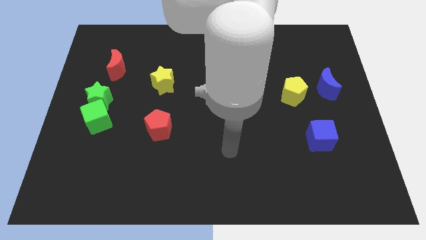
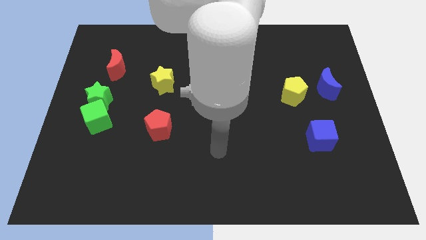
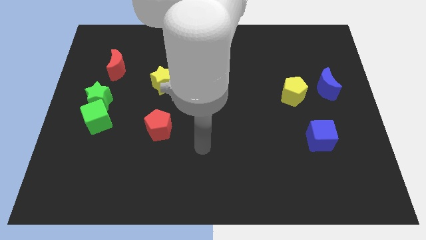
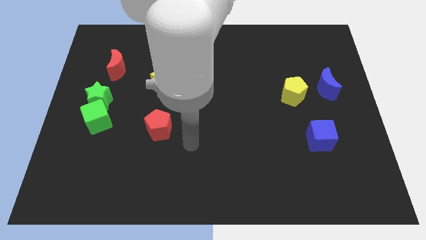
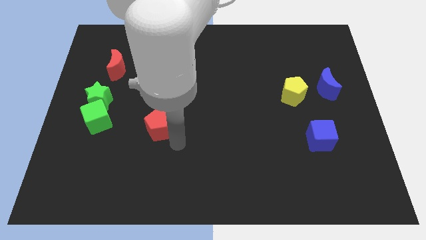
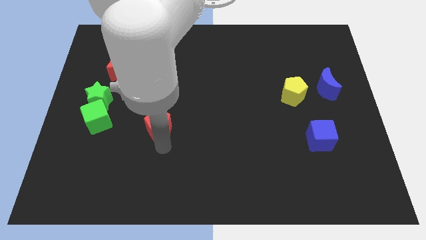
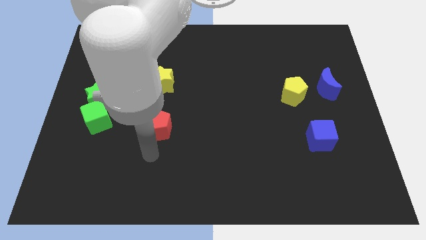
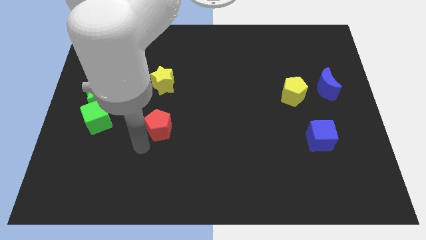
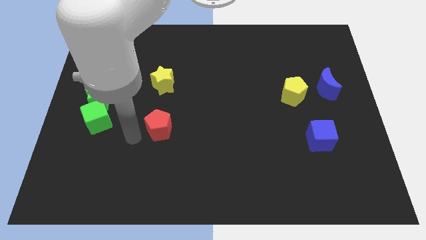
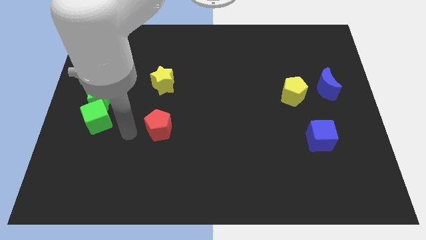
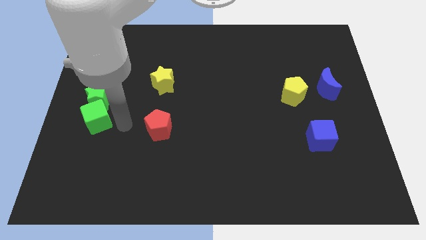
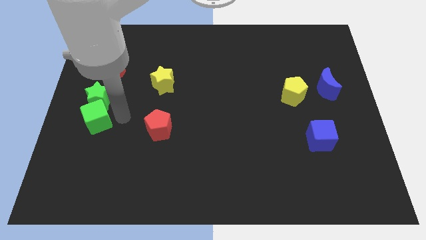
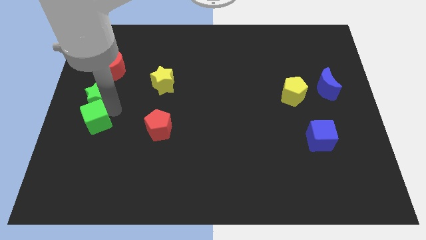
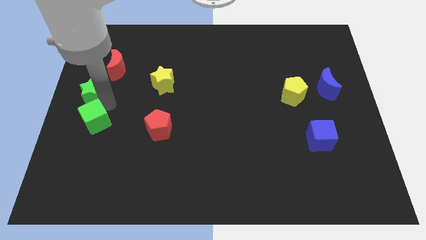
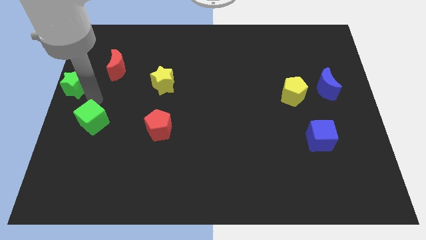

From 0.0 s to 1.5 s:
move the green cube away from the green star

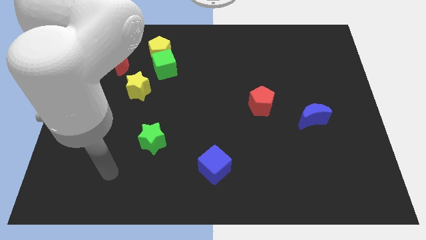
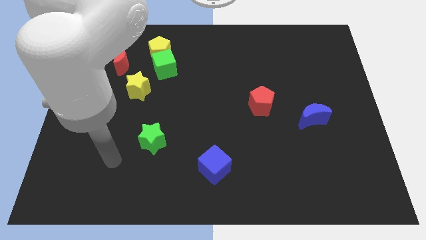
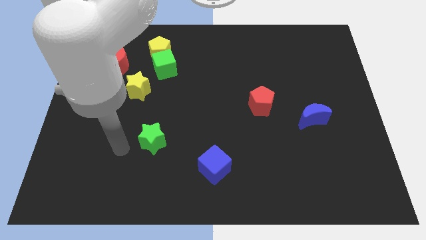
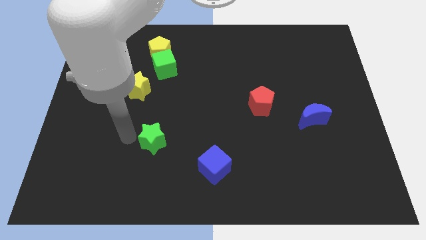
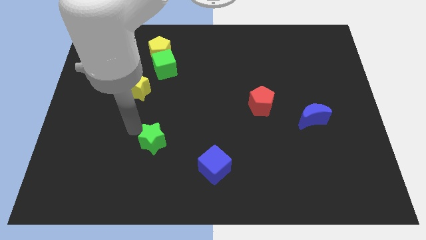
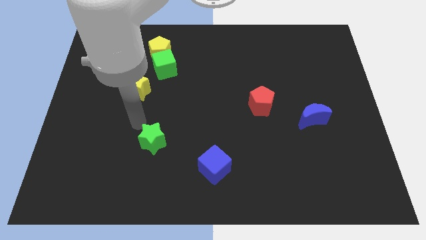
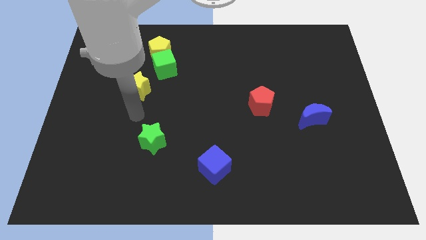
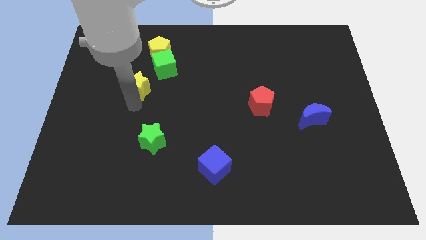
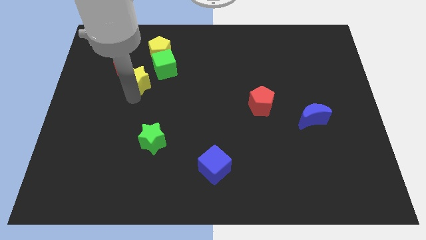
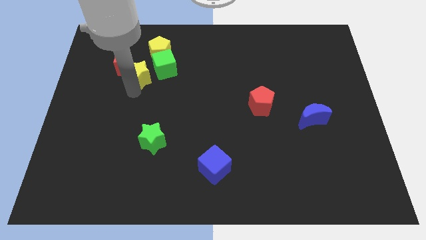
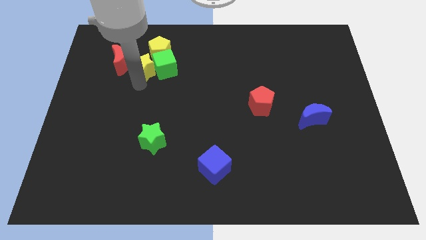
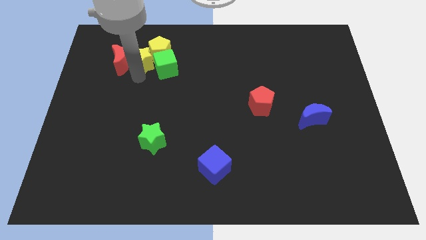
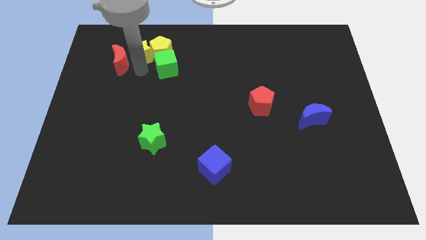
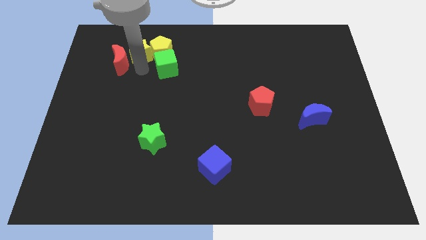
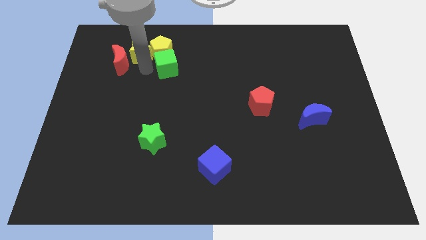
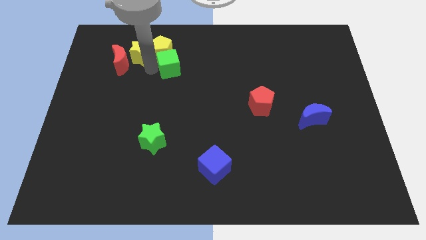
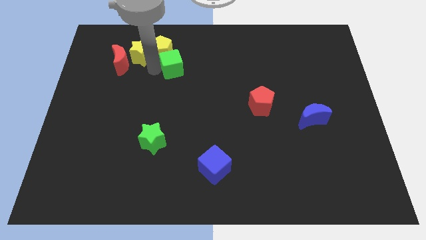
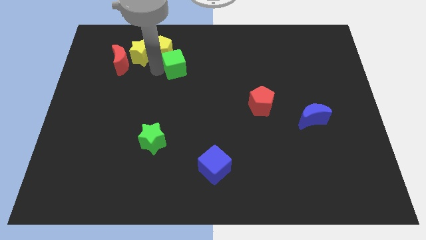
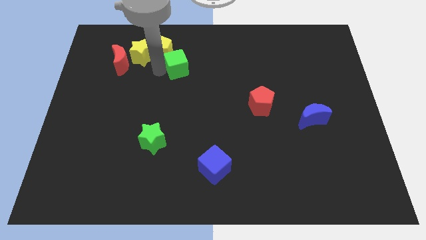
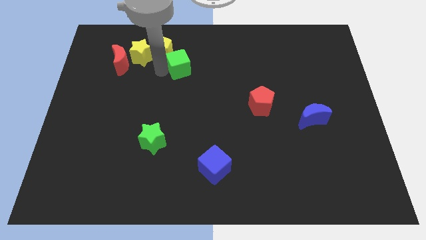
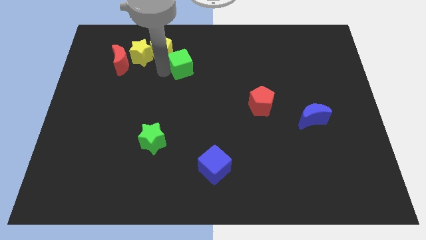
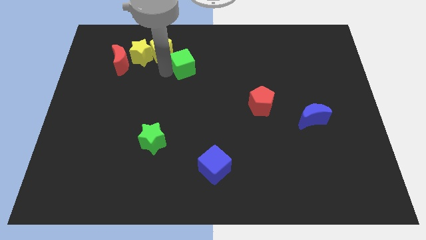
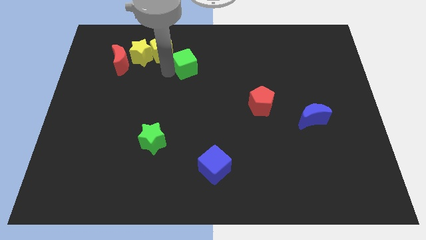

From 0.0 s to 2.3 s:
pull the green cube apart from the yellow pentagon and yellow star

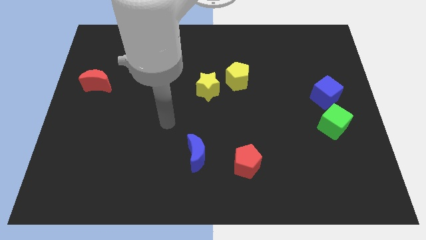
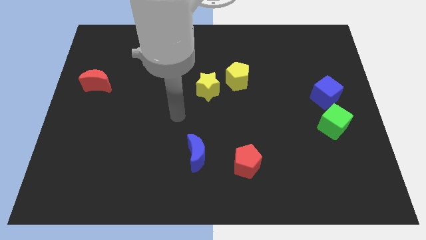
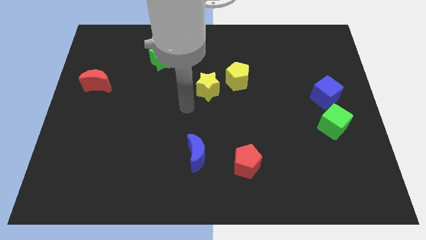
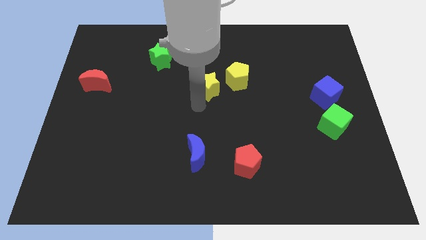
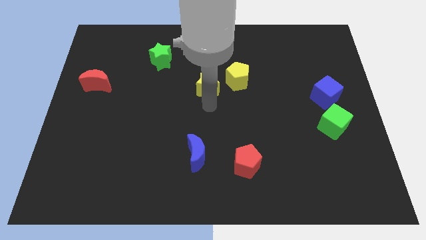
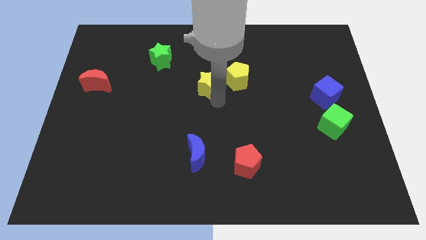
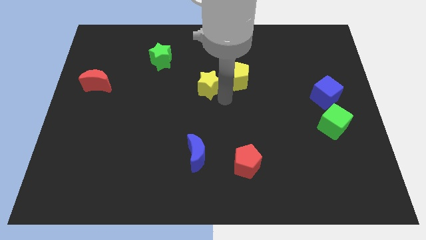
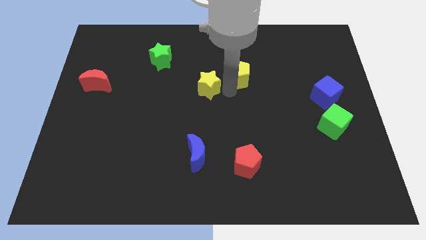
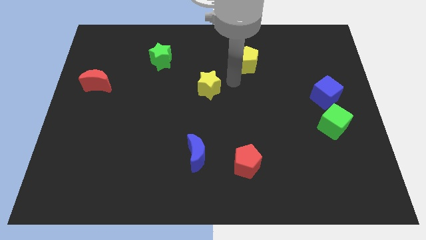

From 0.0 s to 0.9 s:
move the yellow star away from the yellow pentagon

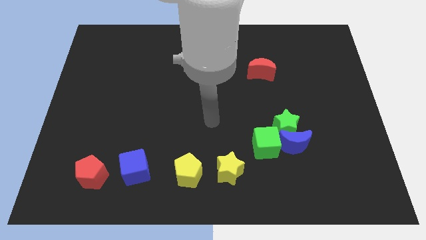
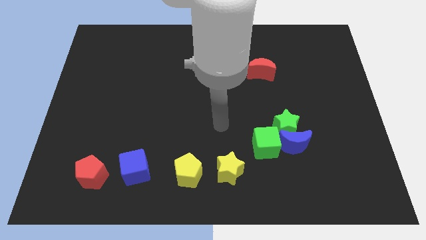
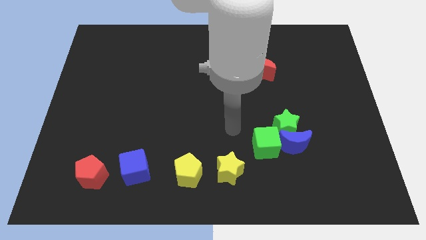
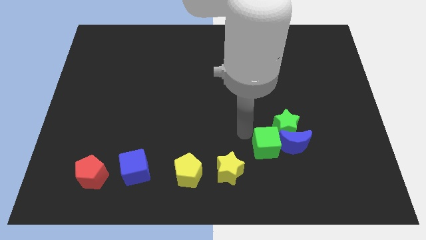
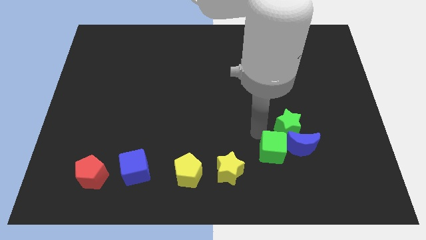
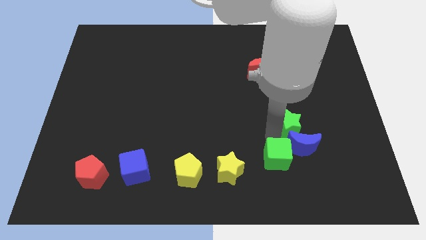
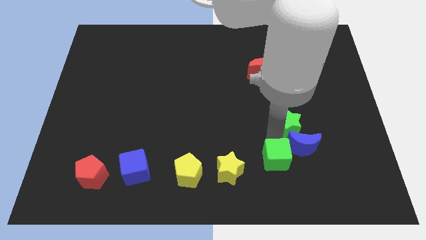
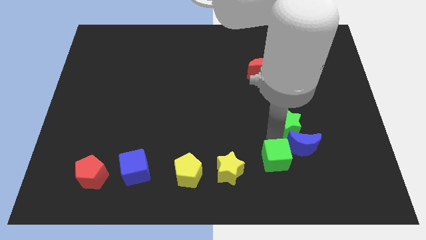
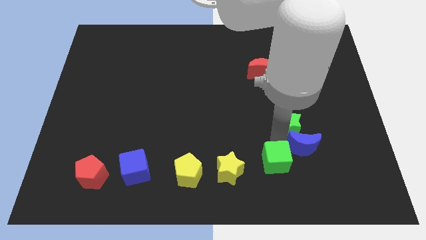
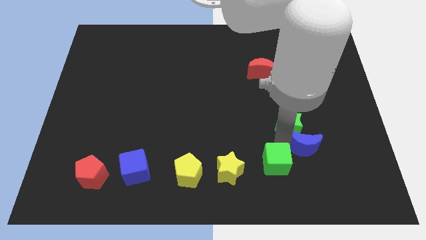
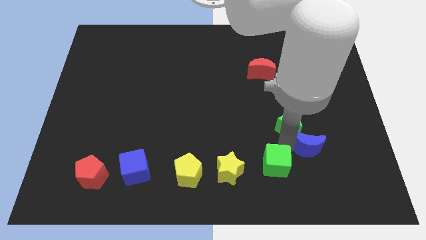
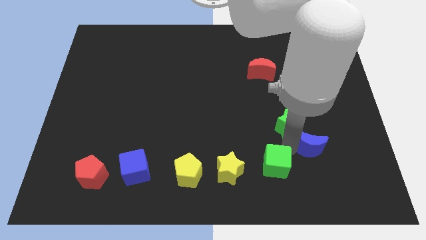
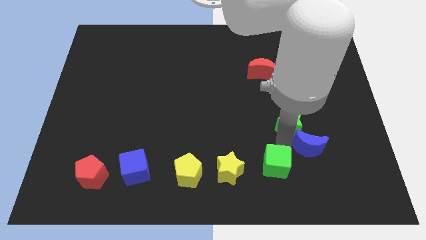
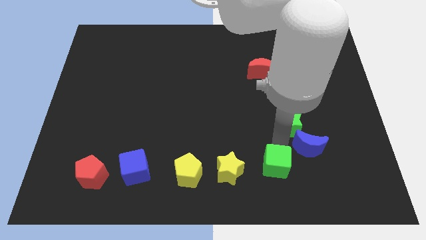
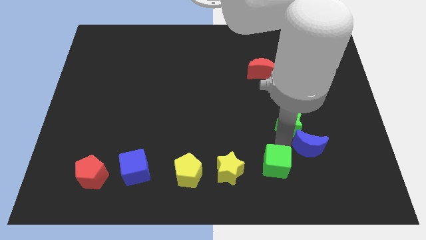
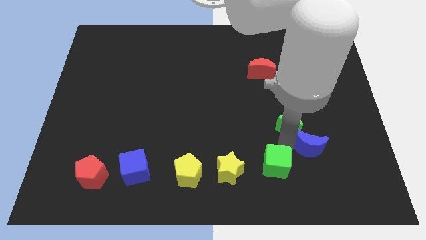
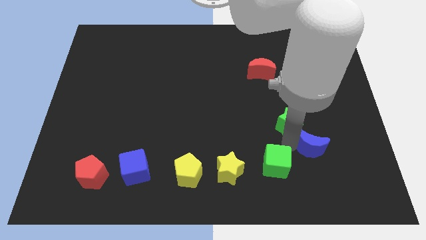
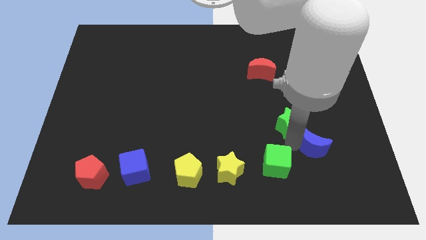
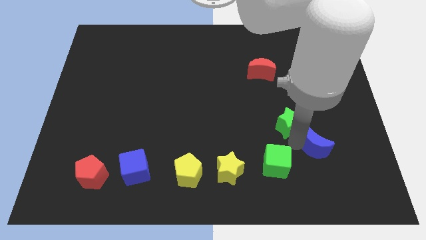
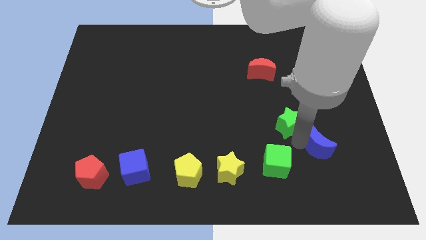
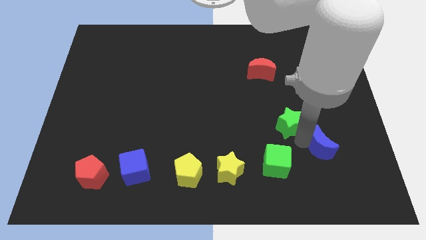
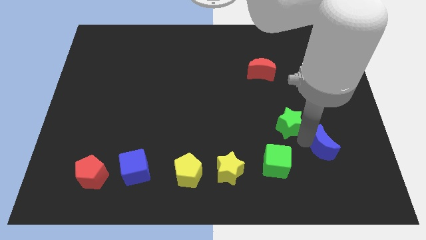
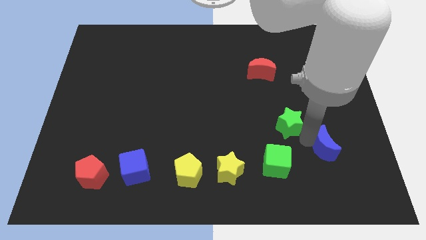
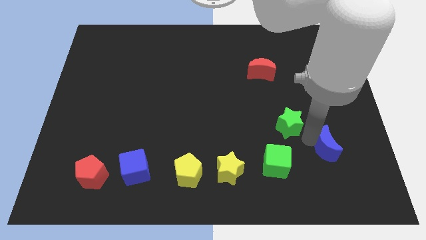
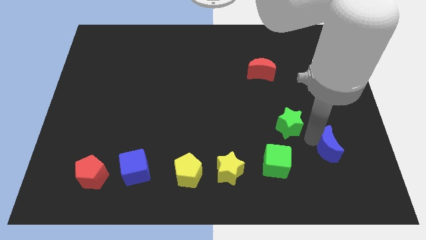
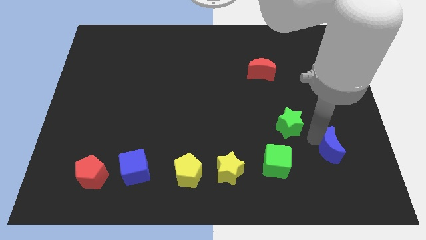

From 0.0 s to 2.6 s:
move the blue moon away from the green star and green cube

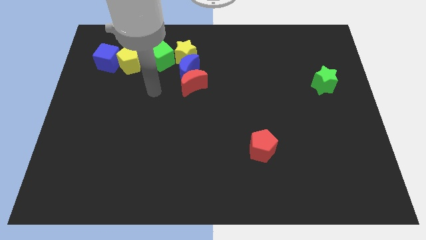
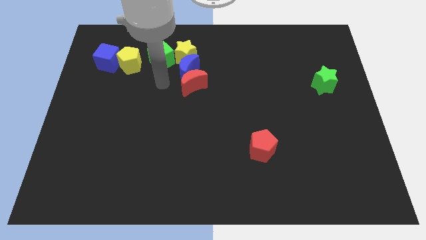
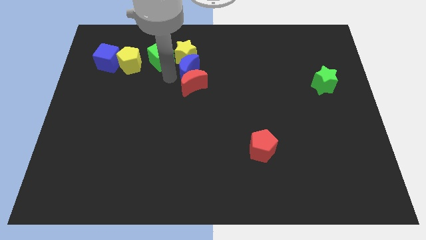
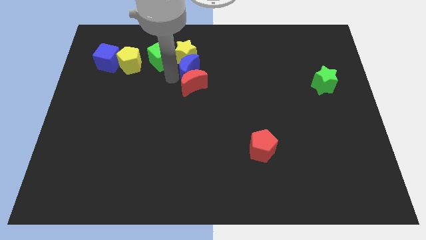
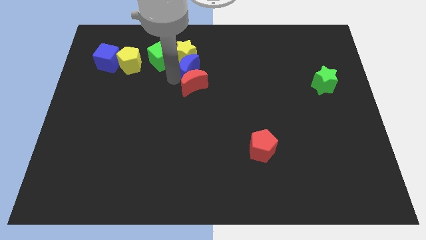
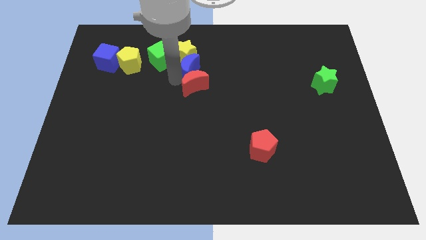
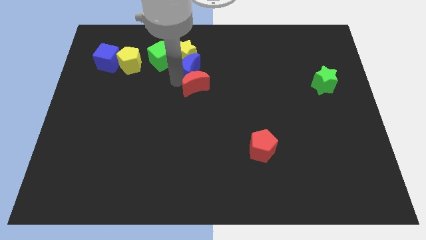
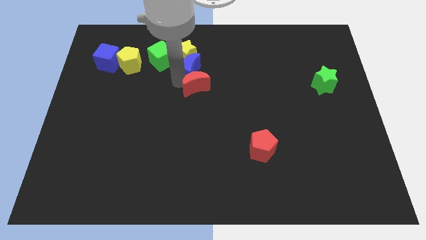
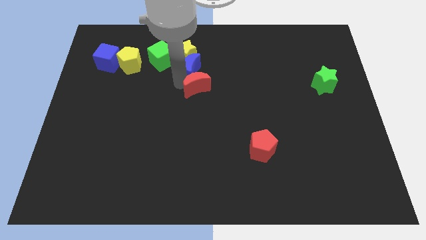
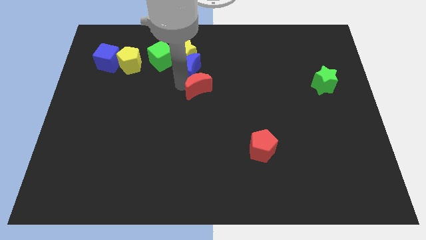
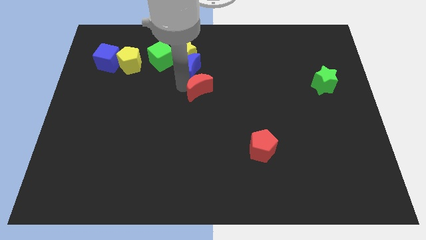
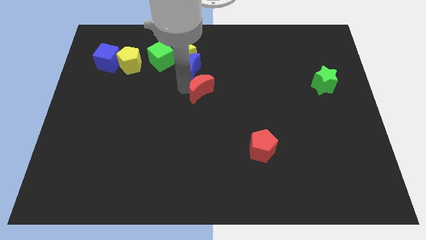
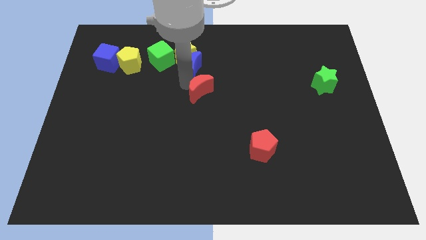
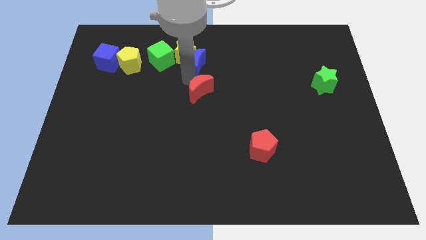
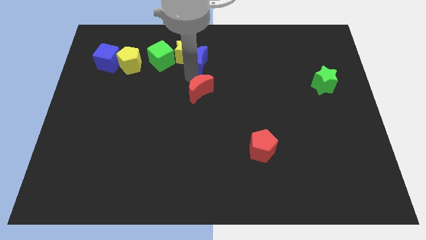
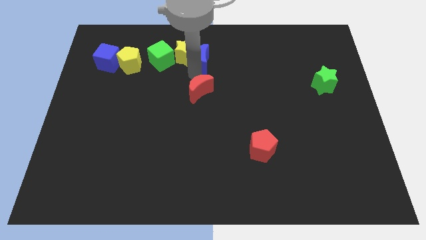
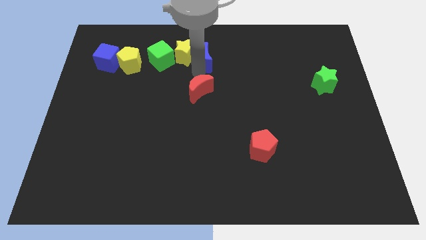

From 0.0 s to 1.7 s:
move the red moon away from the blue moon

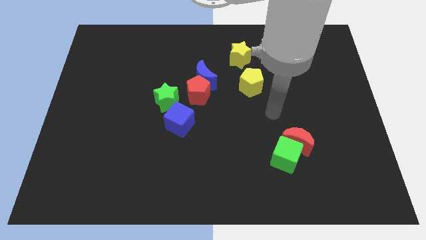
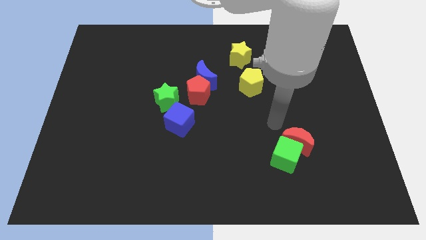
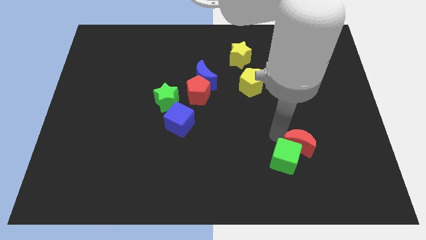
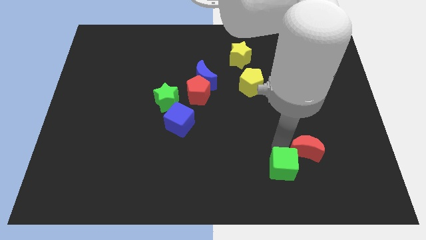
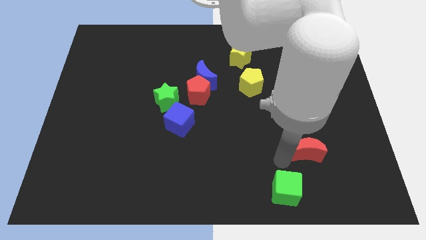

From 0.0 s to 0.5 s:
separate the red moon from the green cube
